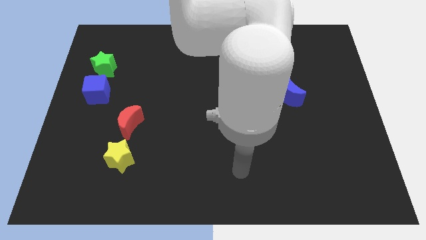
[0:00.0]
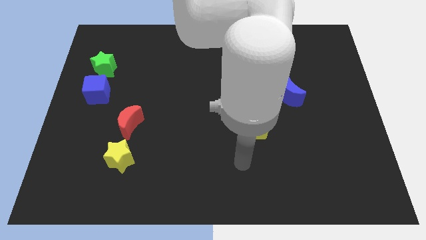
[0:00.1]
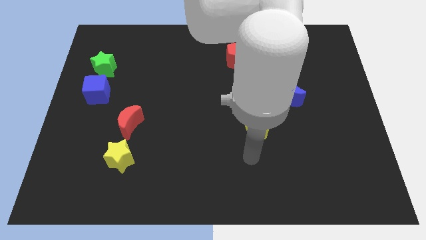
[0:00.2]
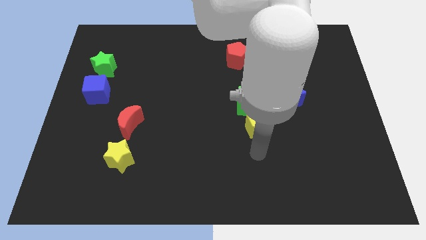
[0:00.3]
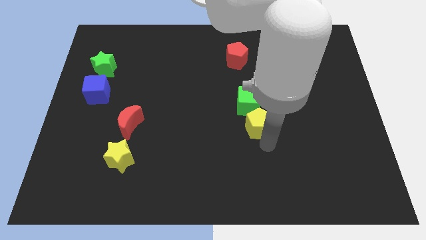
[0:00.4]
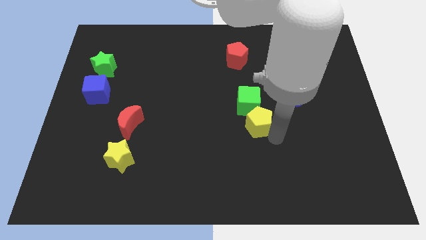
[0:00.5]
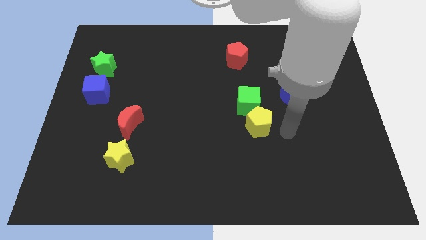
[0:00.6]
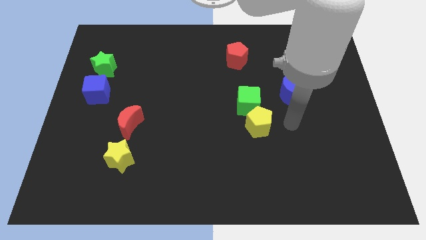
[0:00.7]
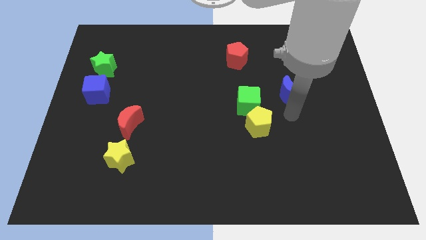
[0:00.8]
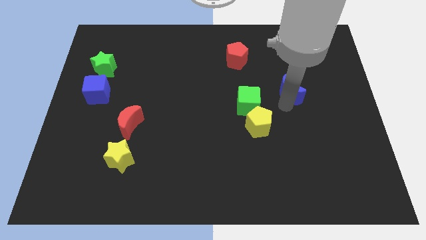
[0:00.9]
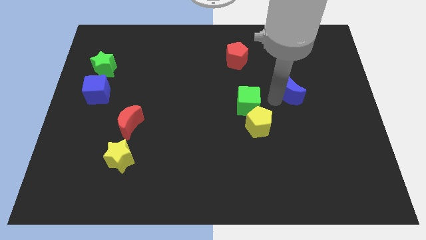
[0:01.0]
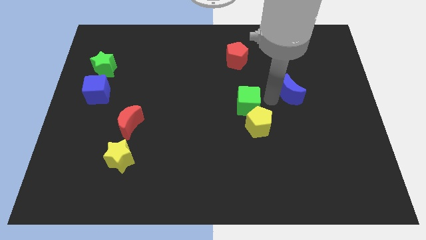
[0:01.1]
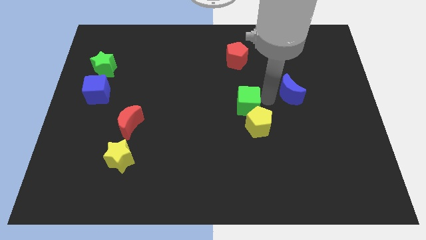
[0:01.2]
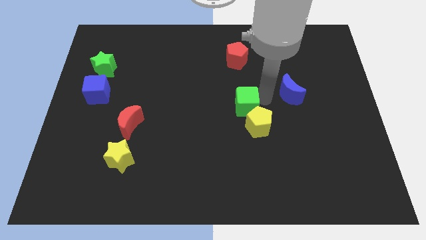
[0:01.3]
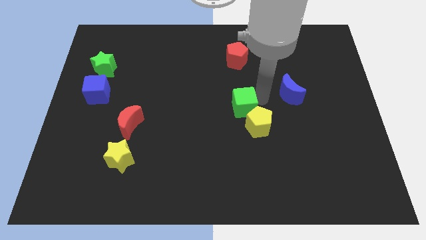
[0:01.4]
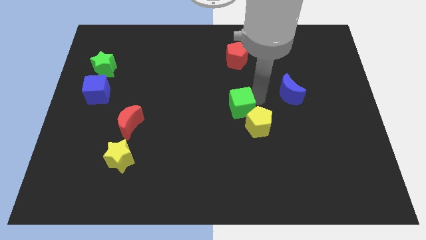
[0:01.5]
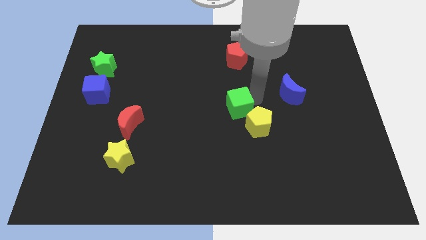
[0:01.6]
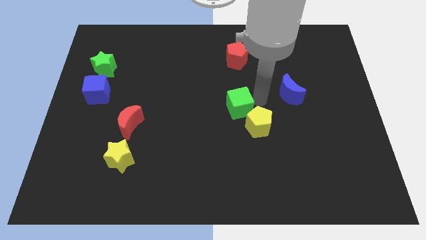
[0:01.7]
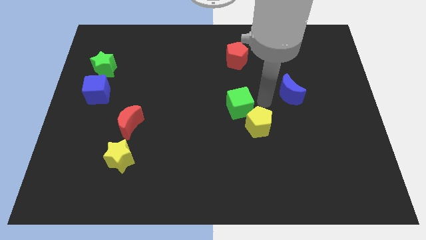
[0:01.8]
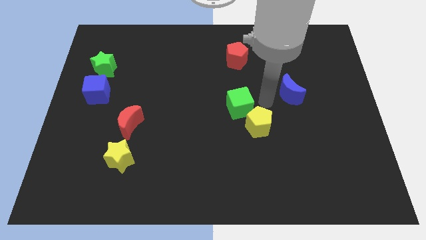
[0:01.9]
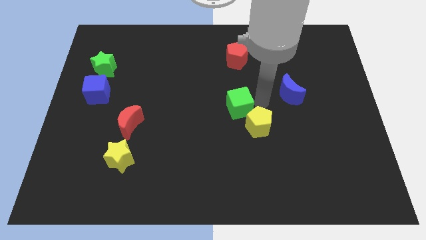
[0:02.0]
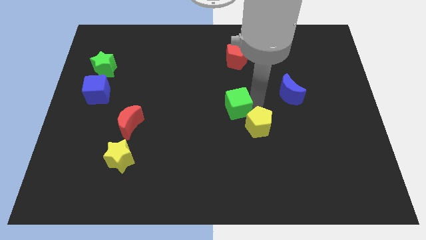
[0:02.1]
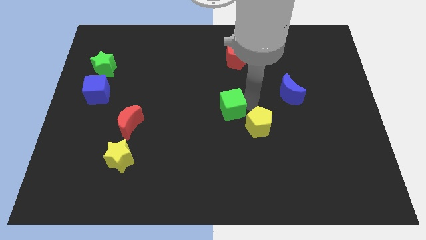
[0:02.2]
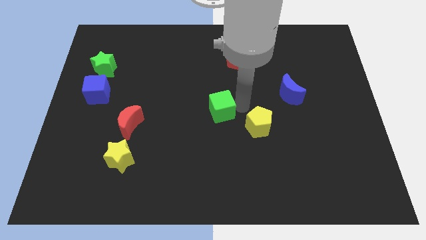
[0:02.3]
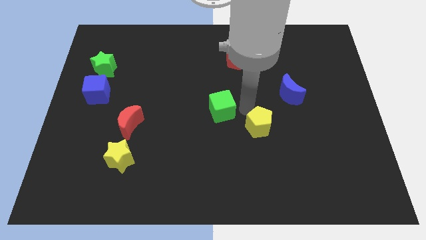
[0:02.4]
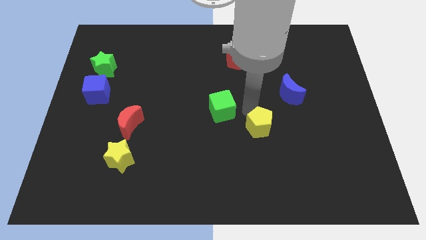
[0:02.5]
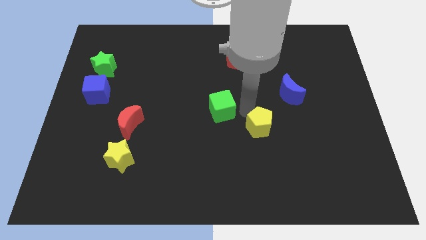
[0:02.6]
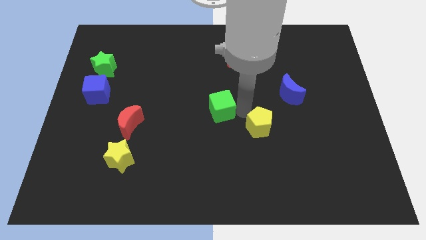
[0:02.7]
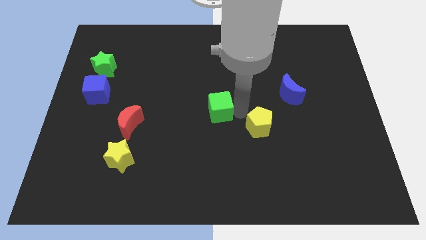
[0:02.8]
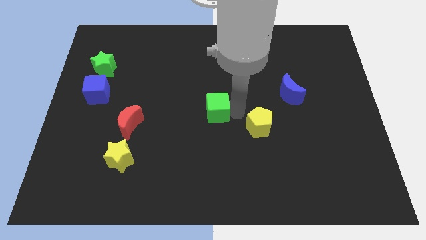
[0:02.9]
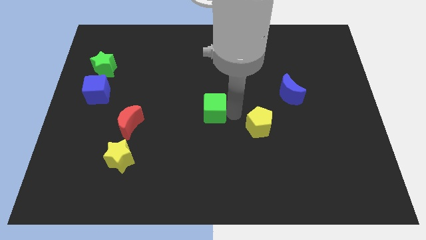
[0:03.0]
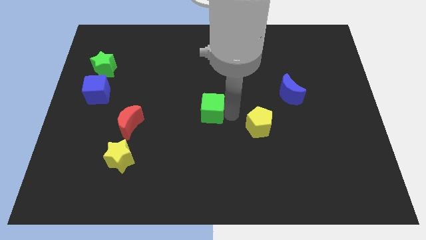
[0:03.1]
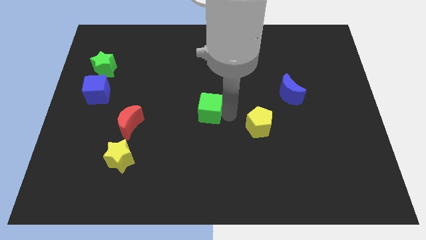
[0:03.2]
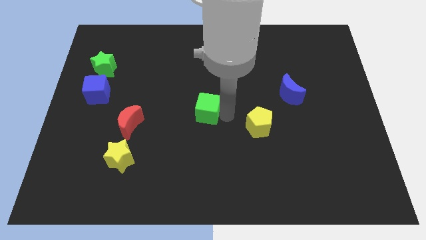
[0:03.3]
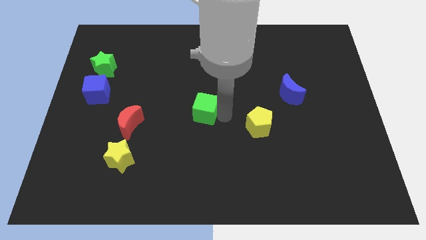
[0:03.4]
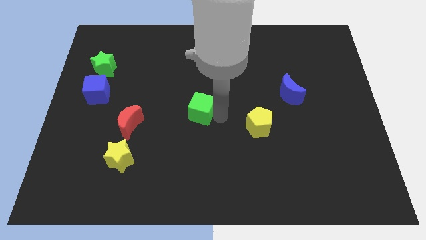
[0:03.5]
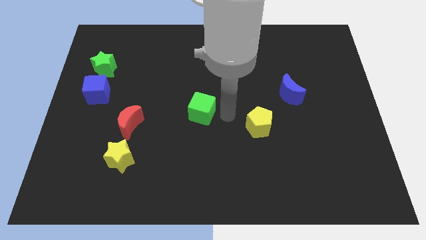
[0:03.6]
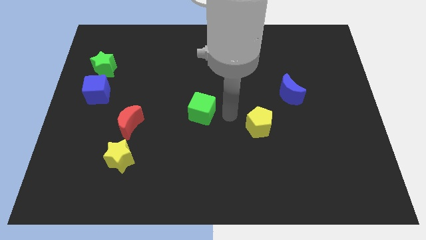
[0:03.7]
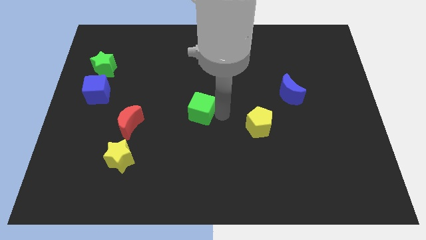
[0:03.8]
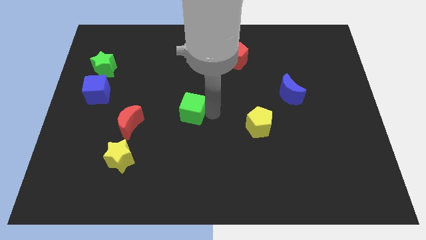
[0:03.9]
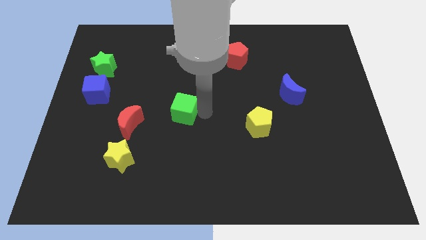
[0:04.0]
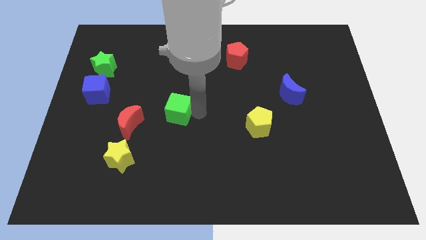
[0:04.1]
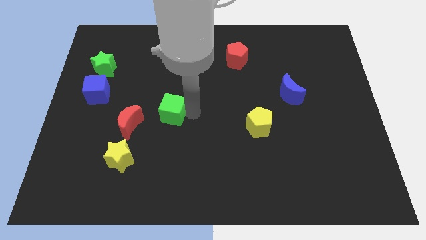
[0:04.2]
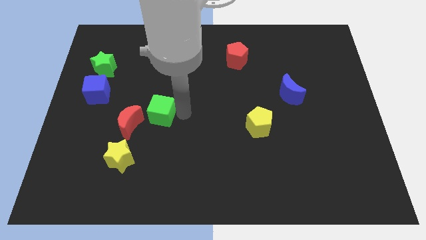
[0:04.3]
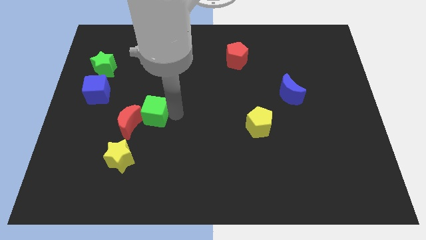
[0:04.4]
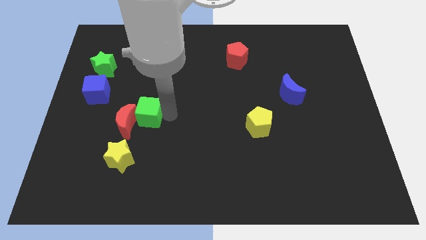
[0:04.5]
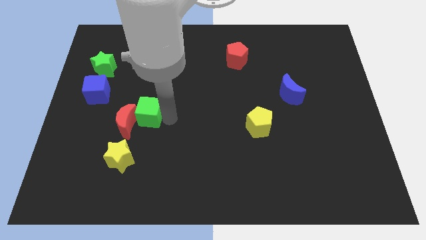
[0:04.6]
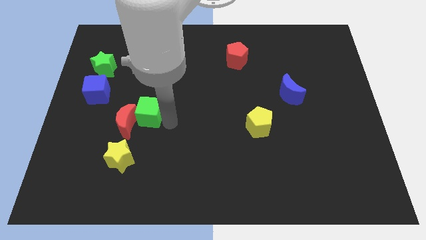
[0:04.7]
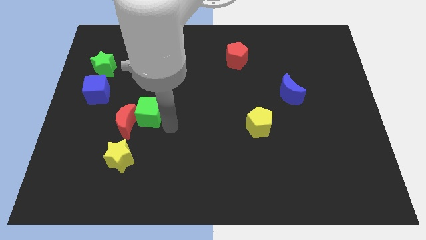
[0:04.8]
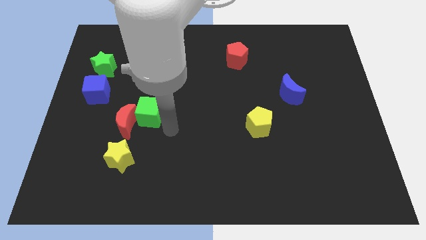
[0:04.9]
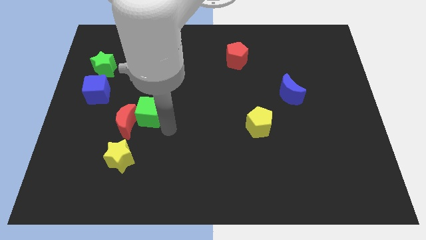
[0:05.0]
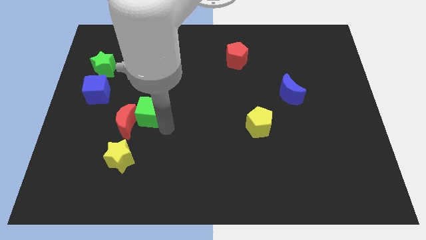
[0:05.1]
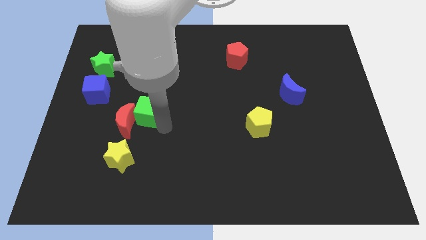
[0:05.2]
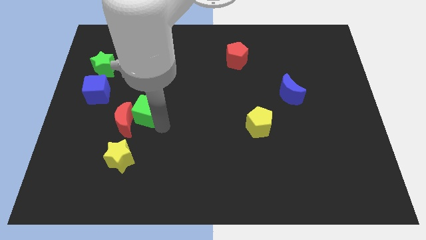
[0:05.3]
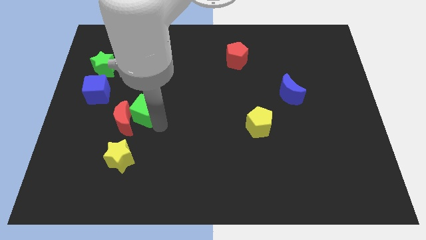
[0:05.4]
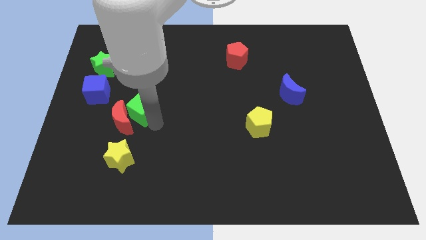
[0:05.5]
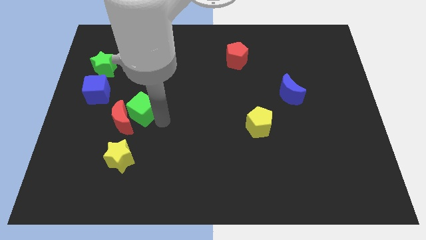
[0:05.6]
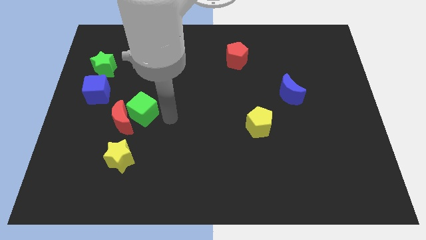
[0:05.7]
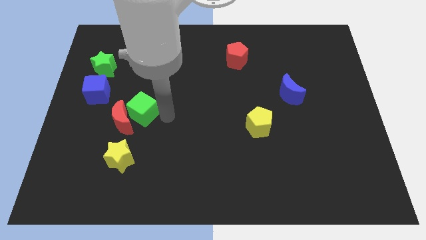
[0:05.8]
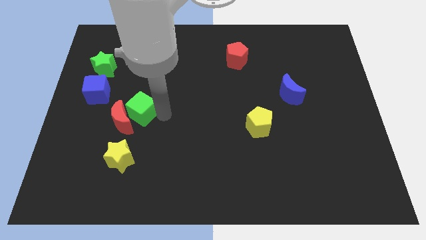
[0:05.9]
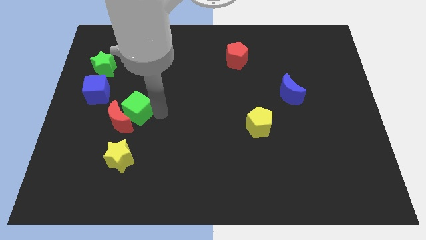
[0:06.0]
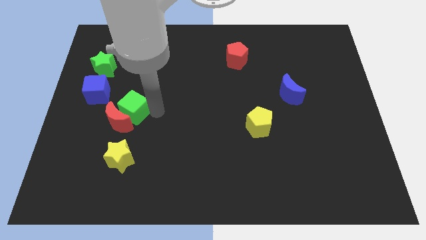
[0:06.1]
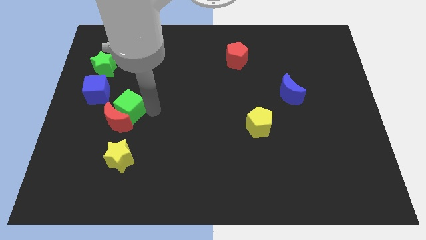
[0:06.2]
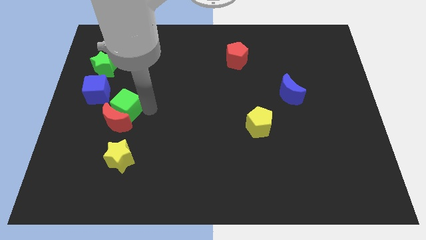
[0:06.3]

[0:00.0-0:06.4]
push the green cube to the top left of the red moon

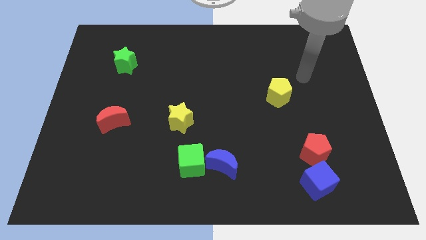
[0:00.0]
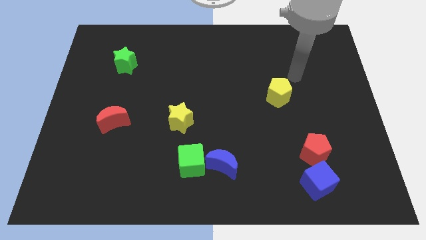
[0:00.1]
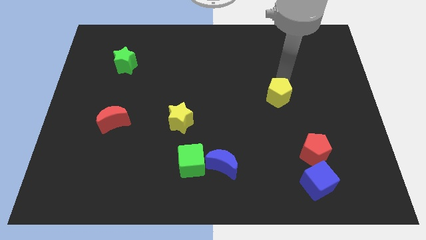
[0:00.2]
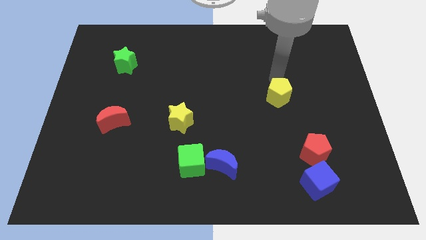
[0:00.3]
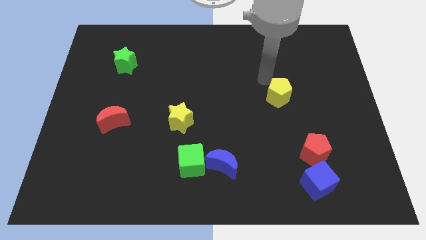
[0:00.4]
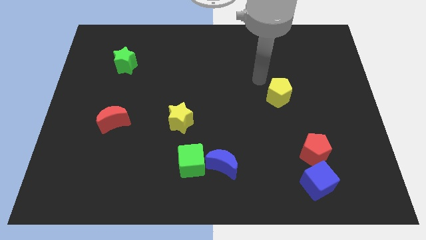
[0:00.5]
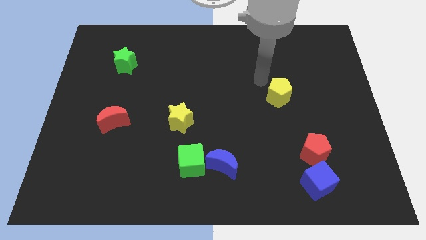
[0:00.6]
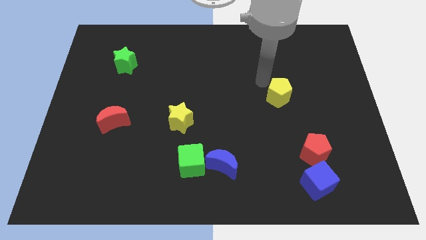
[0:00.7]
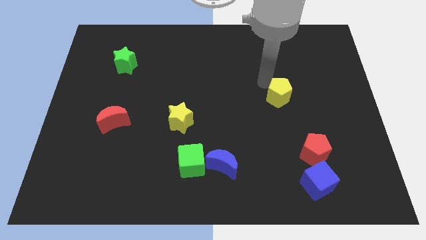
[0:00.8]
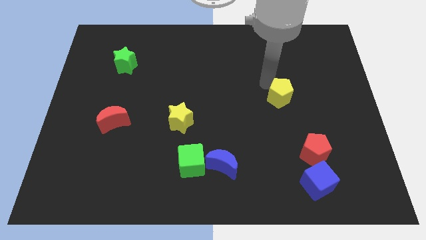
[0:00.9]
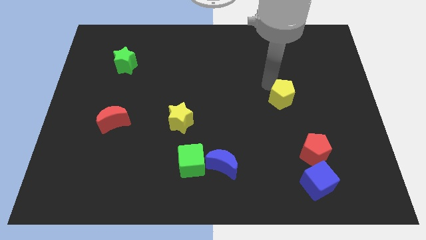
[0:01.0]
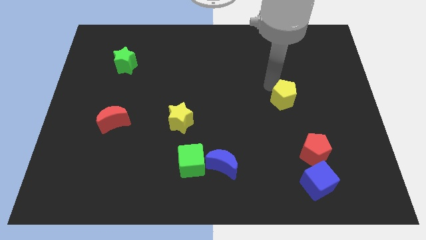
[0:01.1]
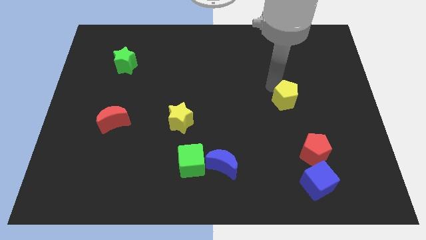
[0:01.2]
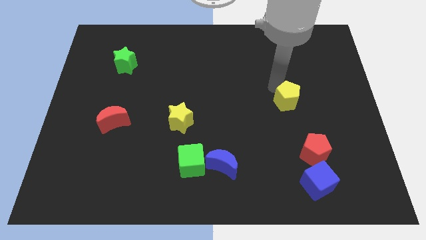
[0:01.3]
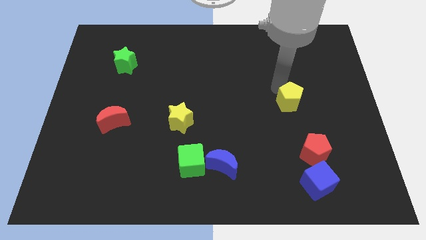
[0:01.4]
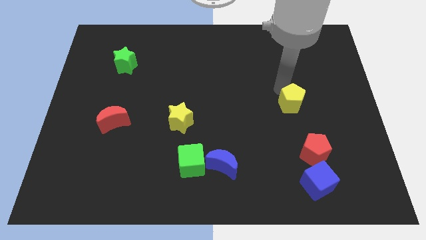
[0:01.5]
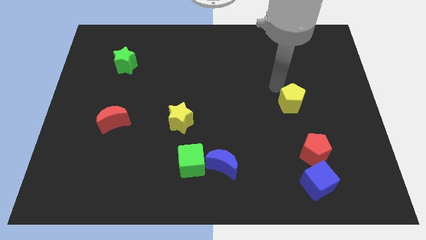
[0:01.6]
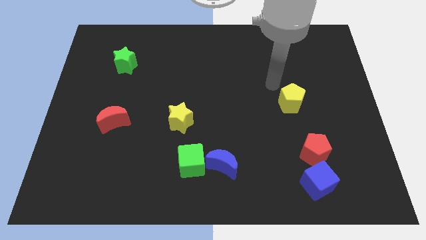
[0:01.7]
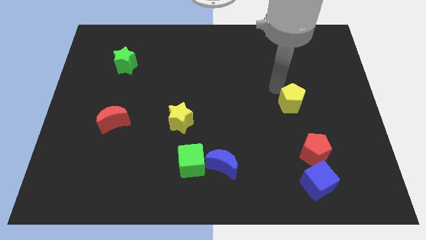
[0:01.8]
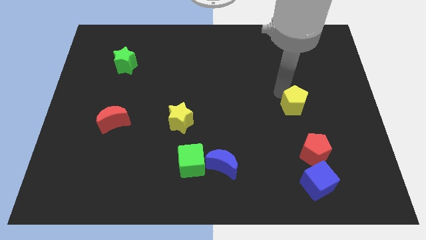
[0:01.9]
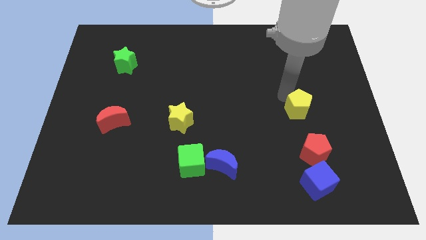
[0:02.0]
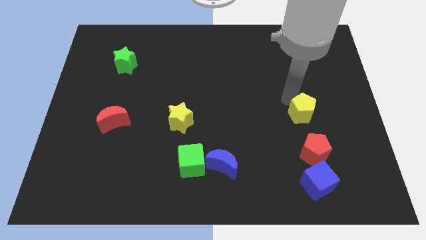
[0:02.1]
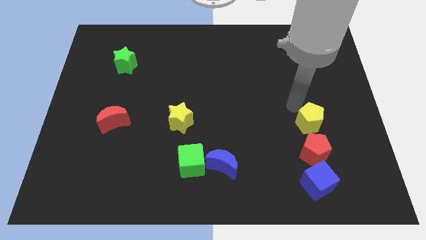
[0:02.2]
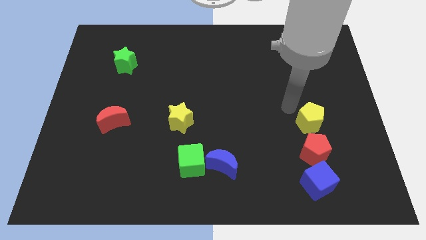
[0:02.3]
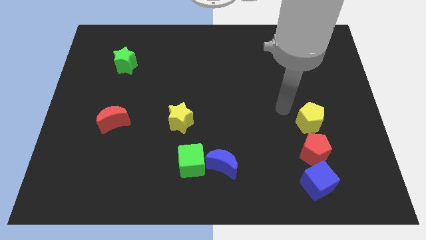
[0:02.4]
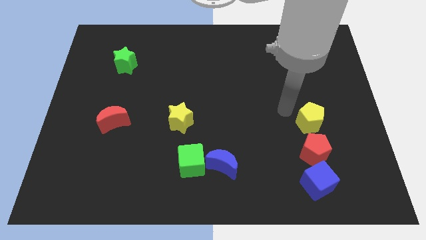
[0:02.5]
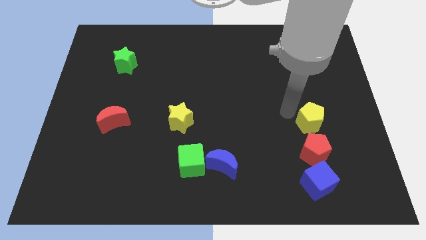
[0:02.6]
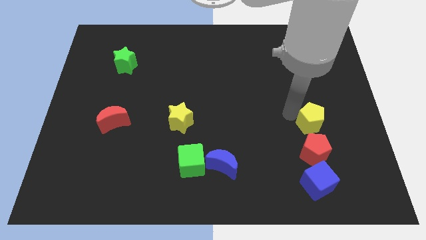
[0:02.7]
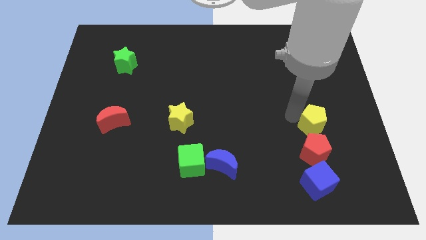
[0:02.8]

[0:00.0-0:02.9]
slide the yellow pentagon to the top right of the red pentagon
